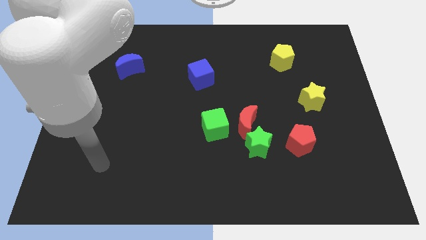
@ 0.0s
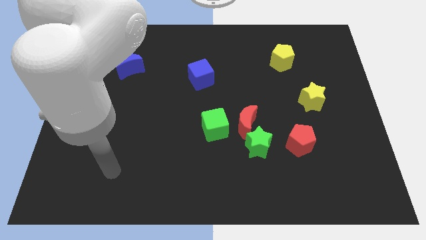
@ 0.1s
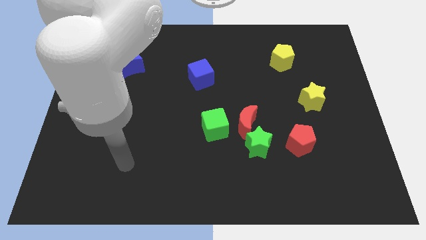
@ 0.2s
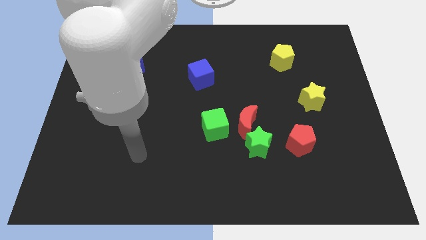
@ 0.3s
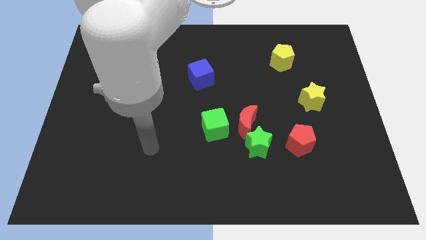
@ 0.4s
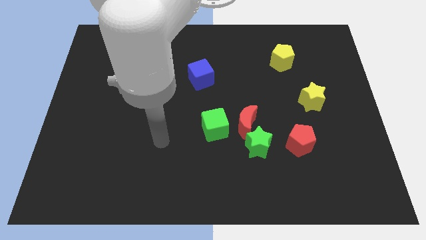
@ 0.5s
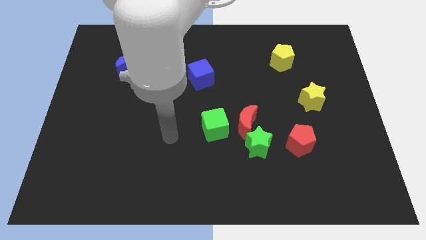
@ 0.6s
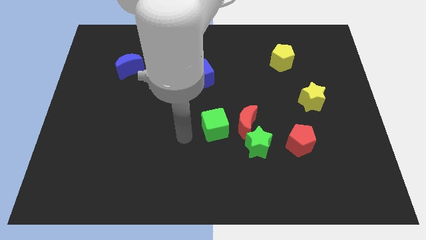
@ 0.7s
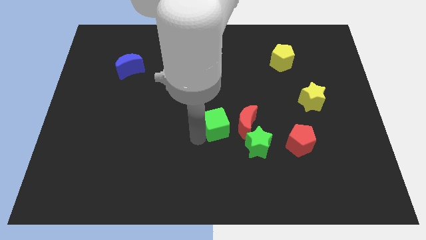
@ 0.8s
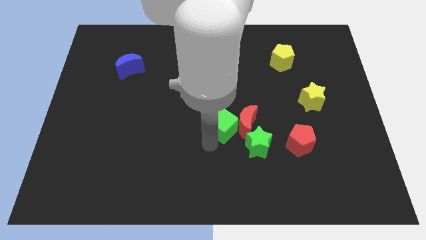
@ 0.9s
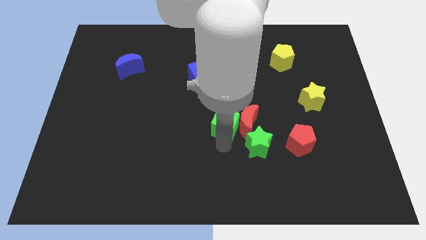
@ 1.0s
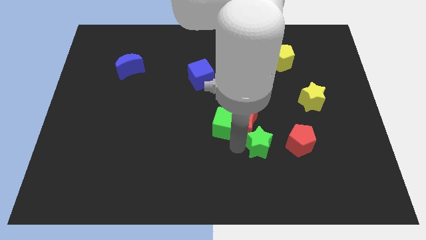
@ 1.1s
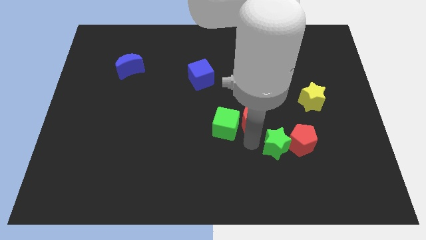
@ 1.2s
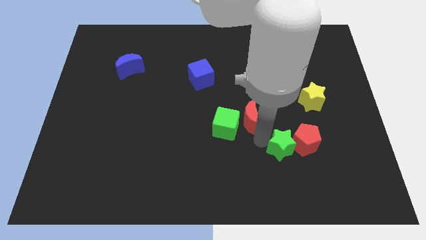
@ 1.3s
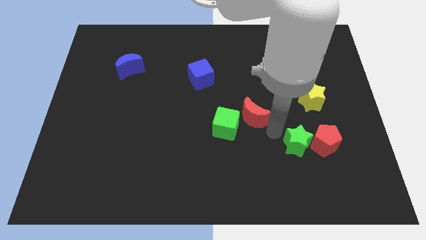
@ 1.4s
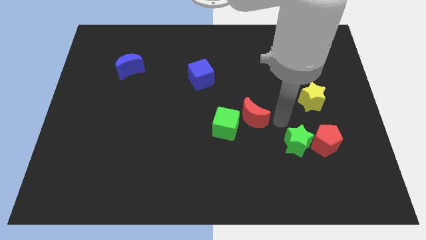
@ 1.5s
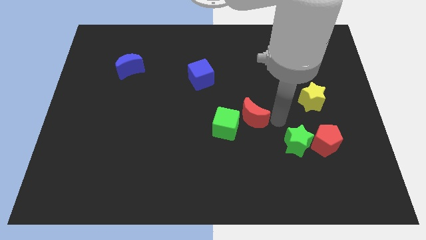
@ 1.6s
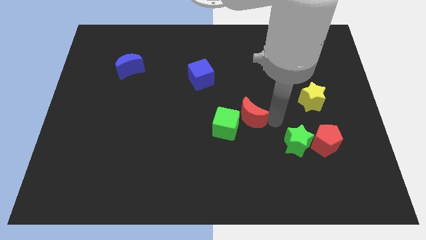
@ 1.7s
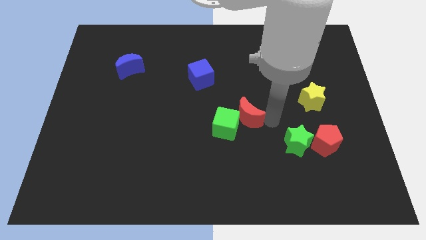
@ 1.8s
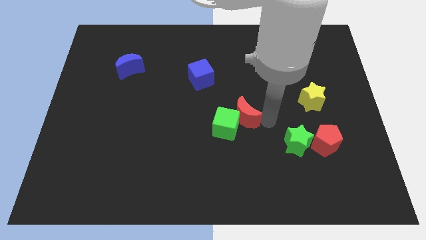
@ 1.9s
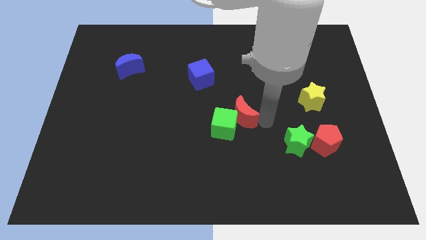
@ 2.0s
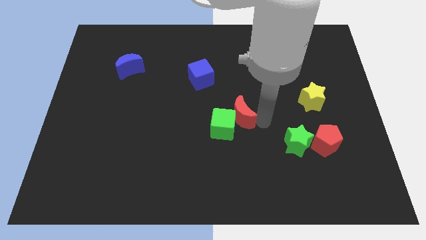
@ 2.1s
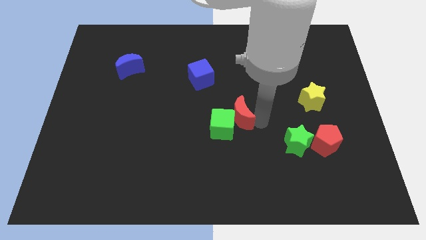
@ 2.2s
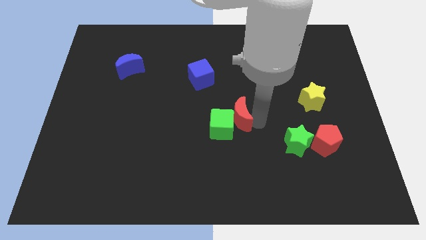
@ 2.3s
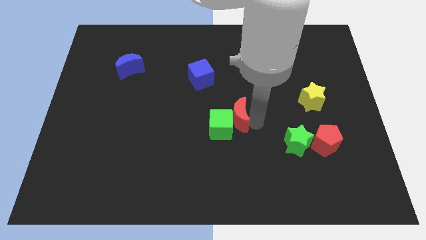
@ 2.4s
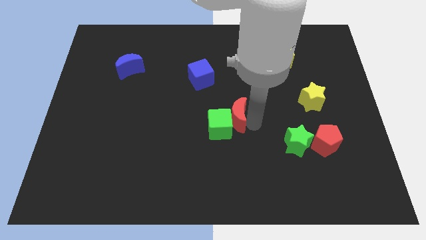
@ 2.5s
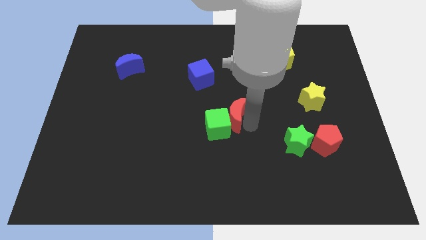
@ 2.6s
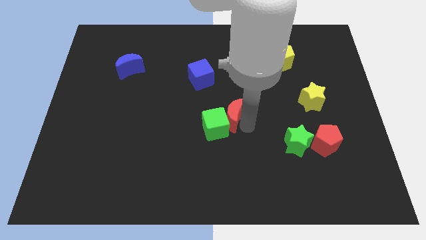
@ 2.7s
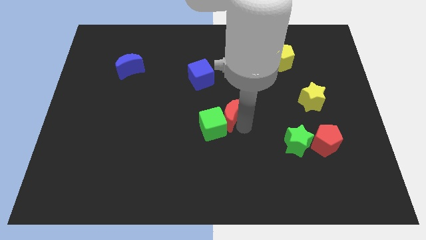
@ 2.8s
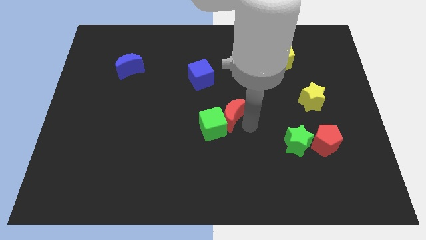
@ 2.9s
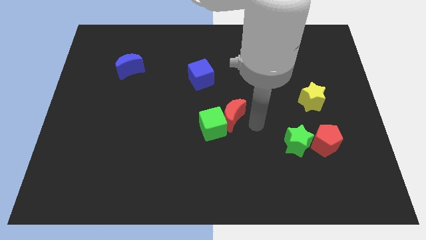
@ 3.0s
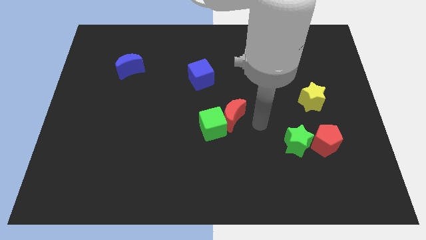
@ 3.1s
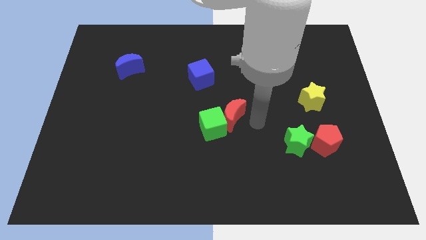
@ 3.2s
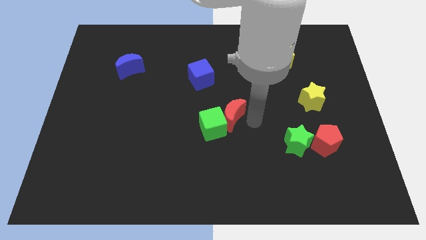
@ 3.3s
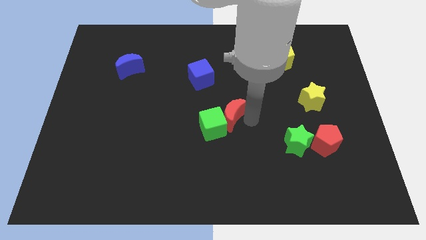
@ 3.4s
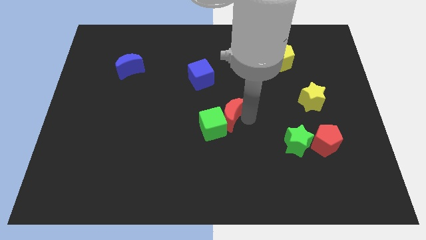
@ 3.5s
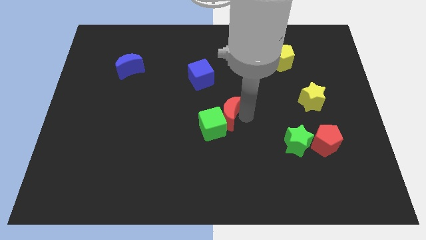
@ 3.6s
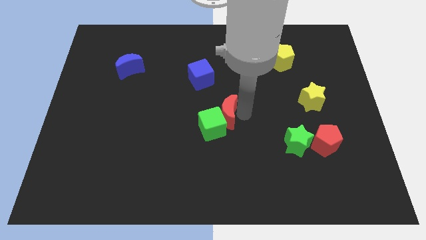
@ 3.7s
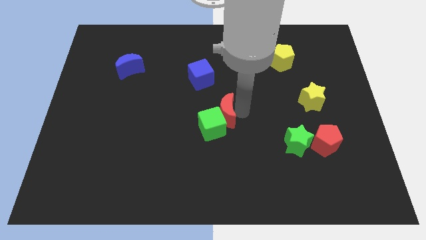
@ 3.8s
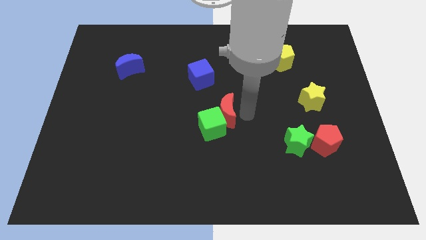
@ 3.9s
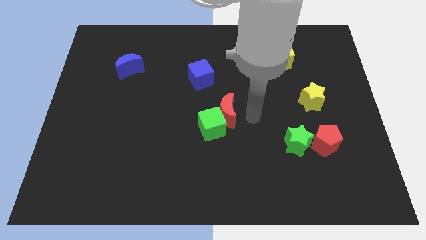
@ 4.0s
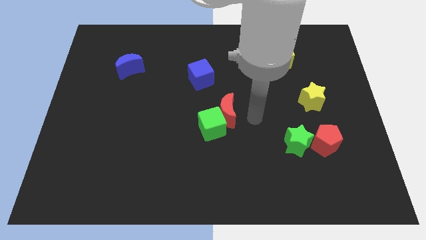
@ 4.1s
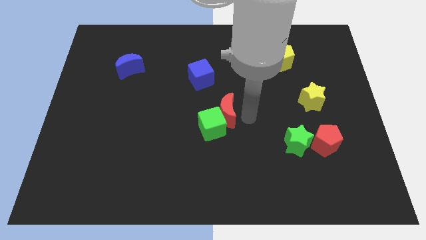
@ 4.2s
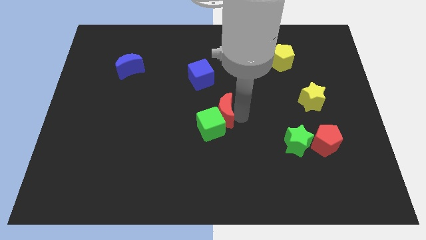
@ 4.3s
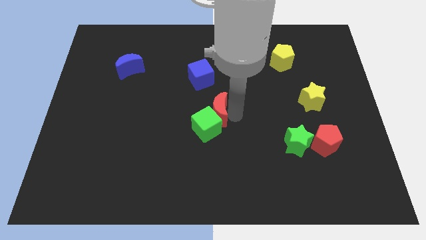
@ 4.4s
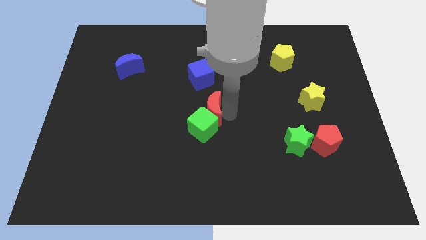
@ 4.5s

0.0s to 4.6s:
slightly move the red moon left

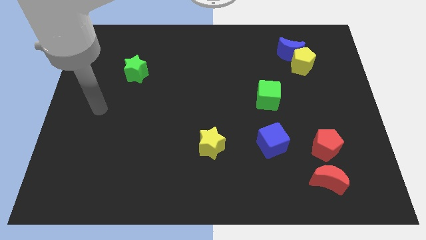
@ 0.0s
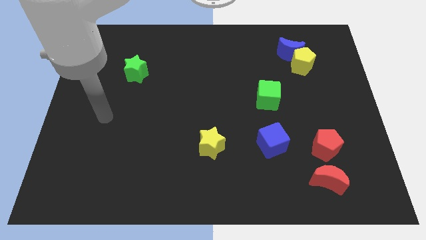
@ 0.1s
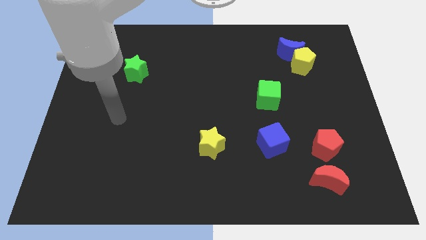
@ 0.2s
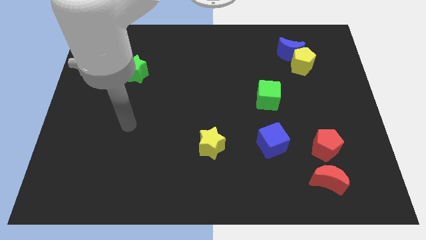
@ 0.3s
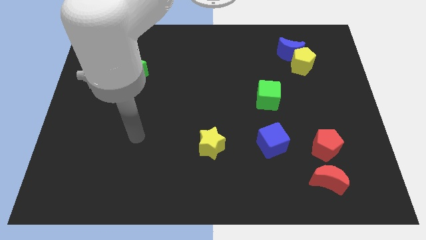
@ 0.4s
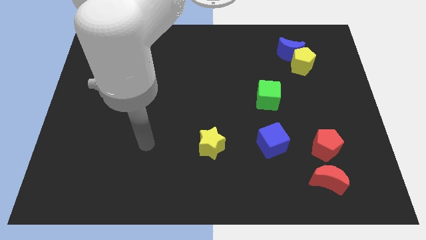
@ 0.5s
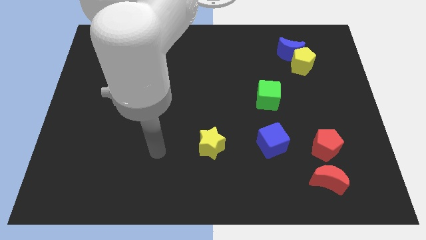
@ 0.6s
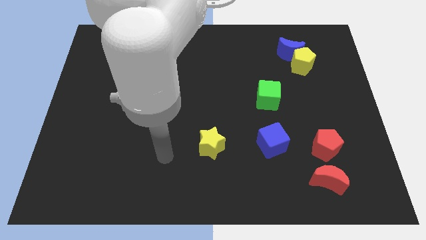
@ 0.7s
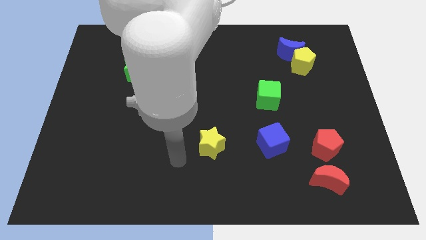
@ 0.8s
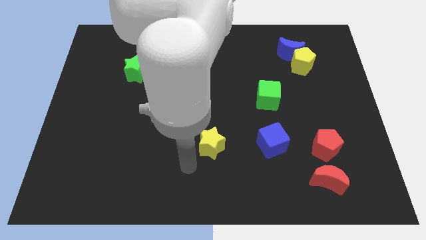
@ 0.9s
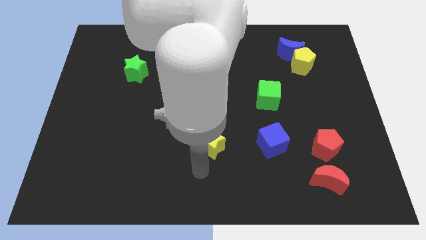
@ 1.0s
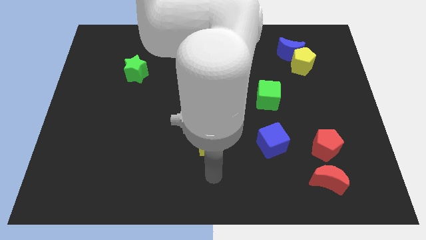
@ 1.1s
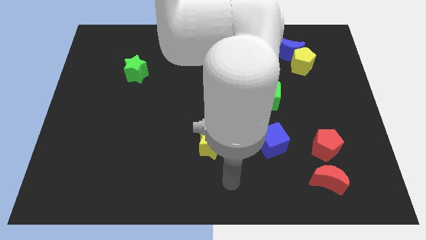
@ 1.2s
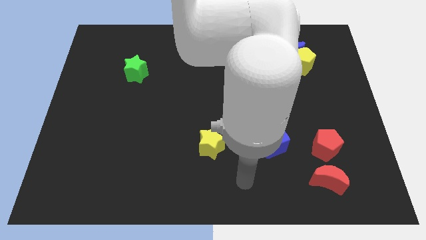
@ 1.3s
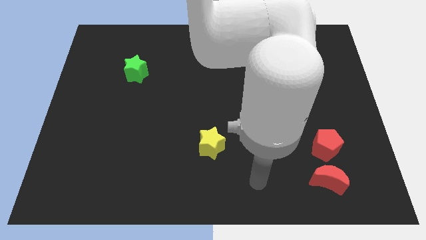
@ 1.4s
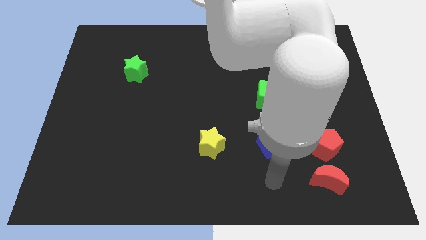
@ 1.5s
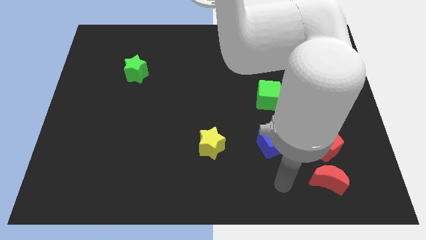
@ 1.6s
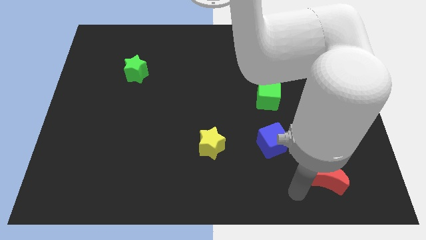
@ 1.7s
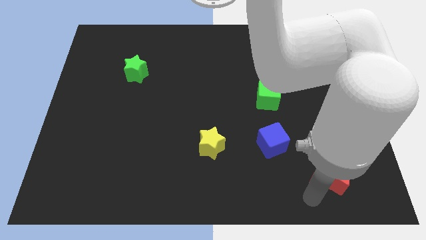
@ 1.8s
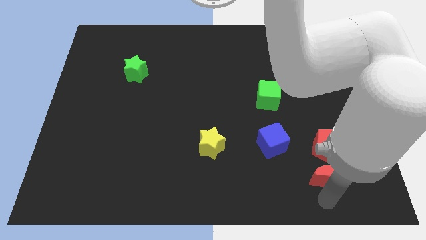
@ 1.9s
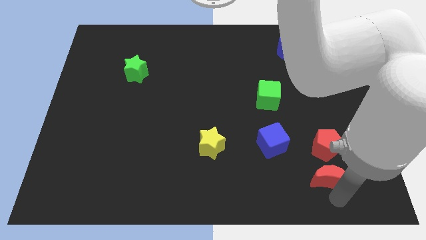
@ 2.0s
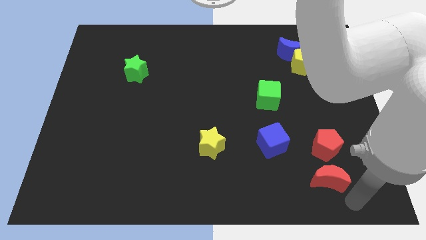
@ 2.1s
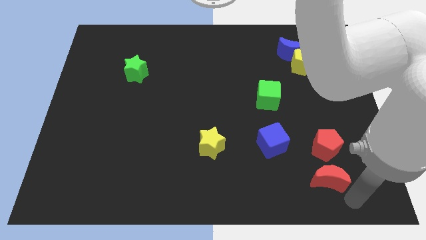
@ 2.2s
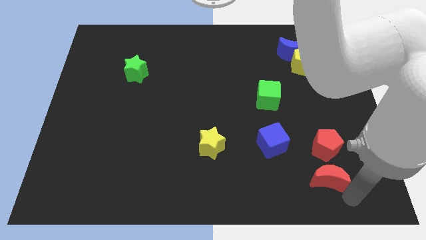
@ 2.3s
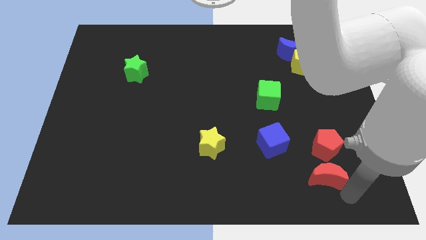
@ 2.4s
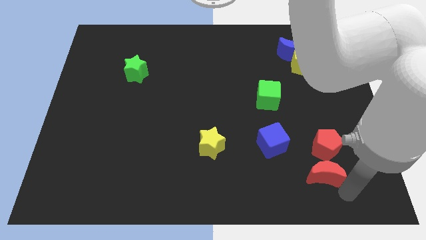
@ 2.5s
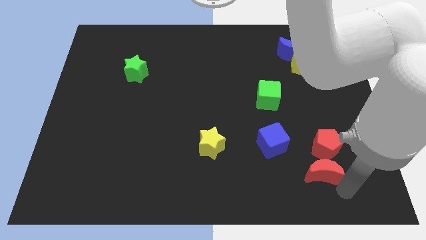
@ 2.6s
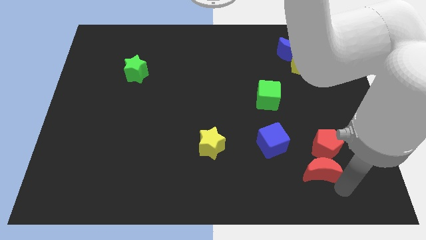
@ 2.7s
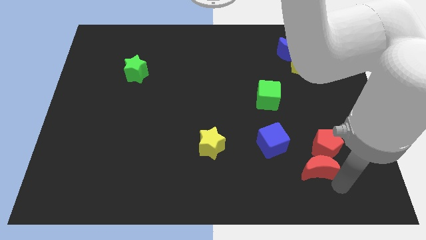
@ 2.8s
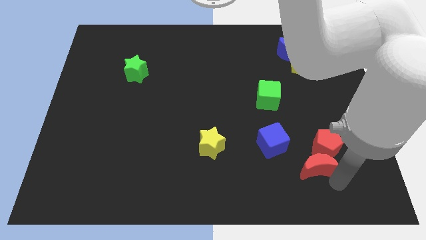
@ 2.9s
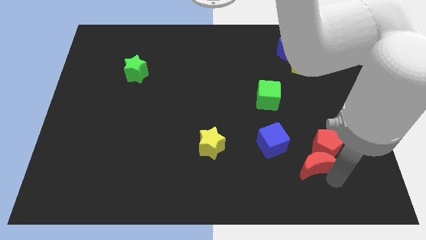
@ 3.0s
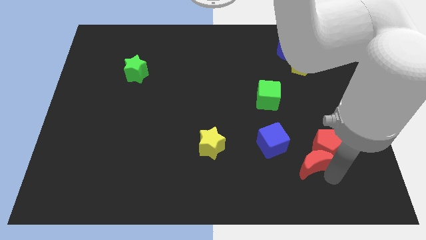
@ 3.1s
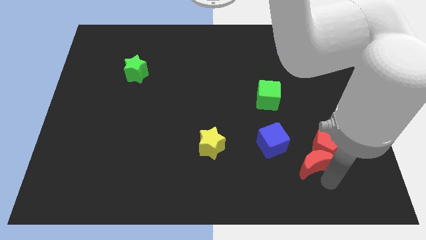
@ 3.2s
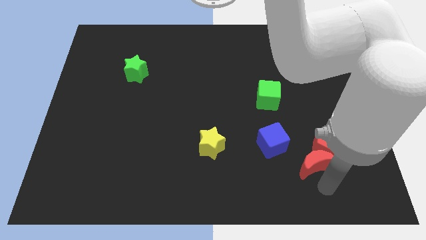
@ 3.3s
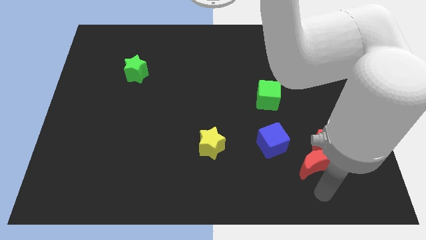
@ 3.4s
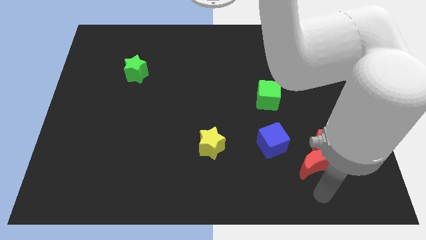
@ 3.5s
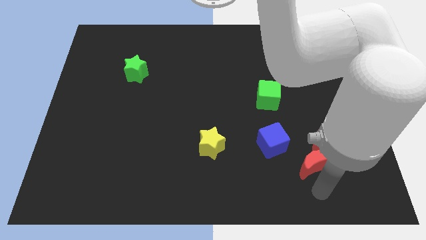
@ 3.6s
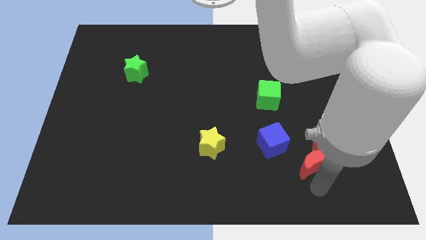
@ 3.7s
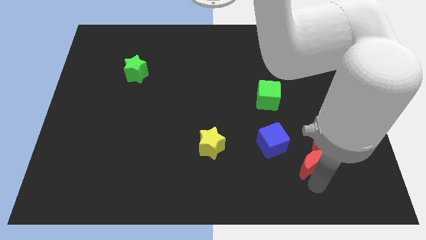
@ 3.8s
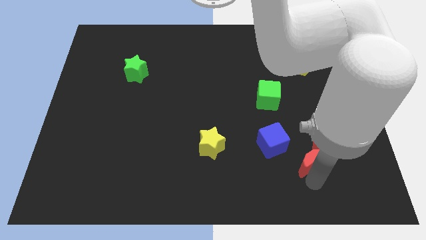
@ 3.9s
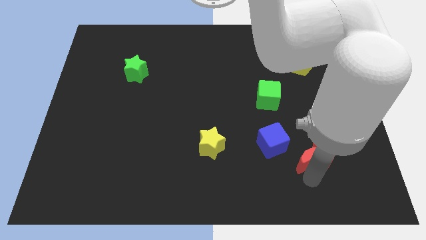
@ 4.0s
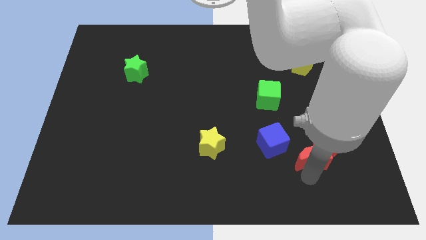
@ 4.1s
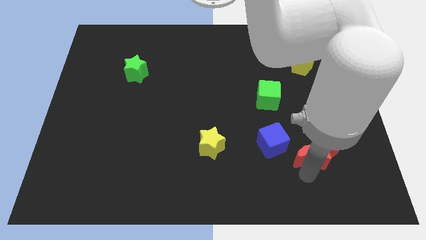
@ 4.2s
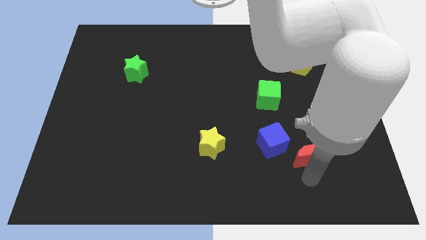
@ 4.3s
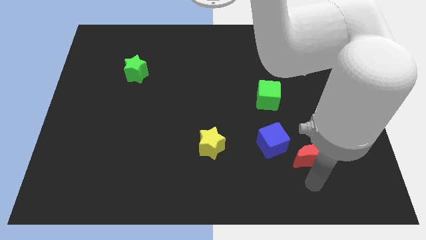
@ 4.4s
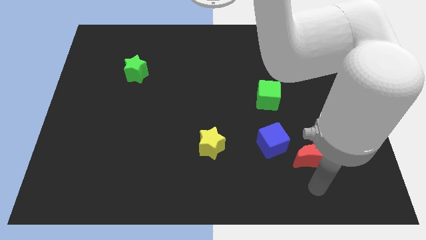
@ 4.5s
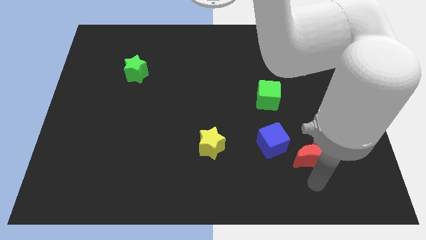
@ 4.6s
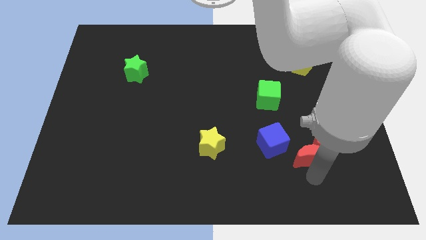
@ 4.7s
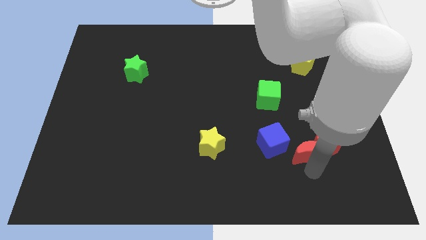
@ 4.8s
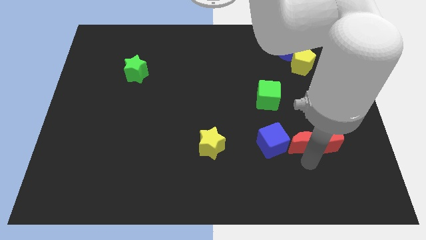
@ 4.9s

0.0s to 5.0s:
slide the red moon upwards slightly
